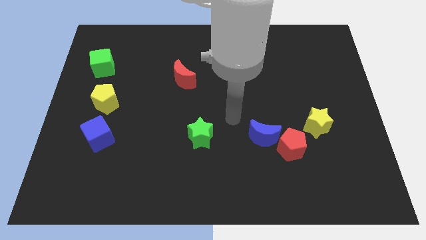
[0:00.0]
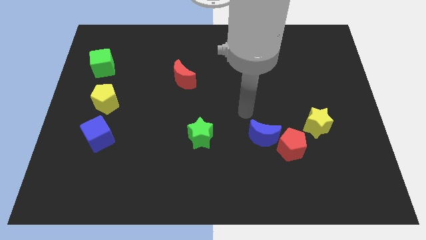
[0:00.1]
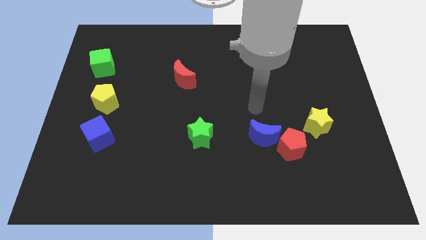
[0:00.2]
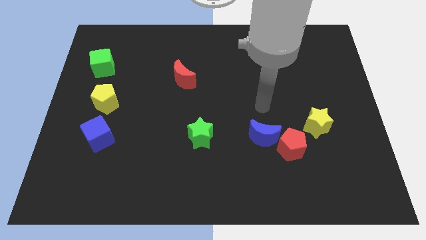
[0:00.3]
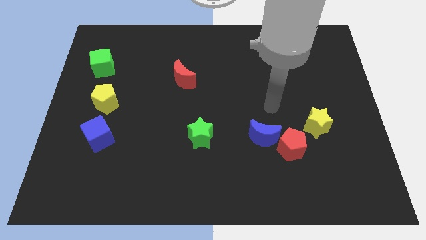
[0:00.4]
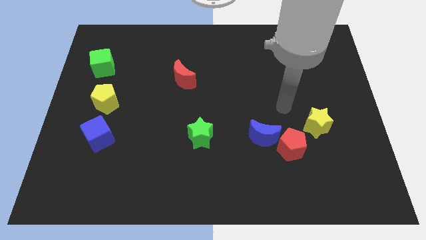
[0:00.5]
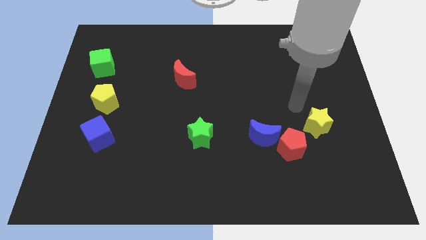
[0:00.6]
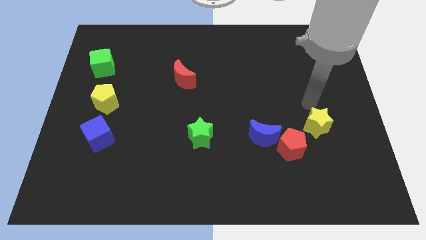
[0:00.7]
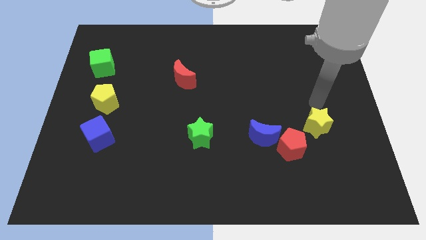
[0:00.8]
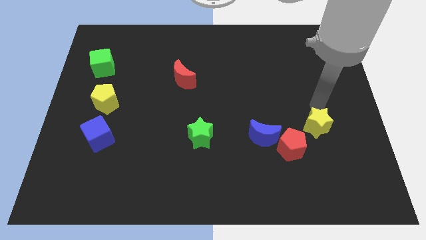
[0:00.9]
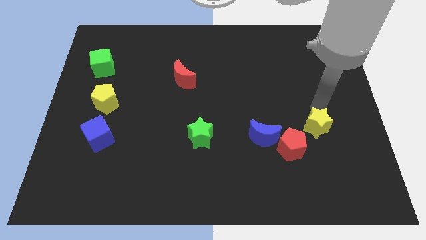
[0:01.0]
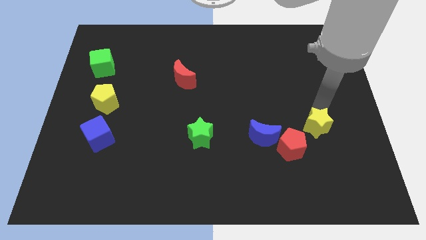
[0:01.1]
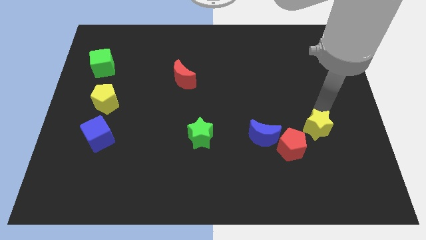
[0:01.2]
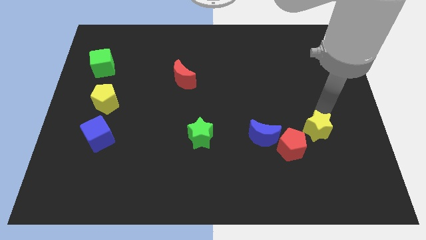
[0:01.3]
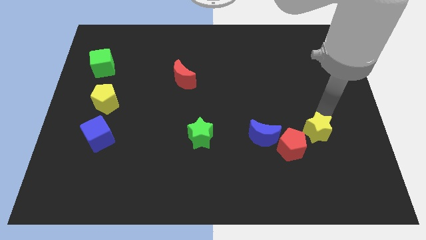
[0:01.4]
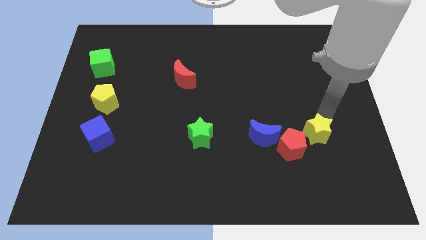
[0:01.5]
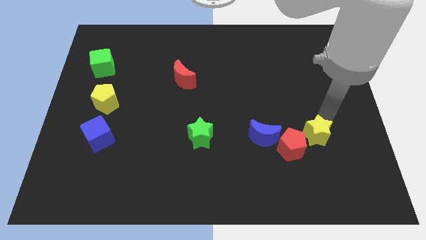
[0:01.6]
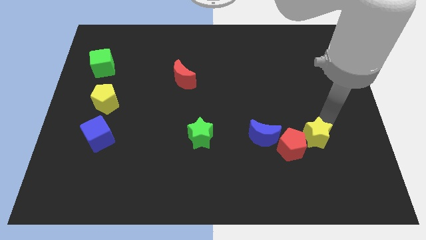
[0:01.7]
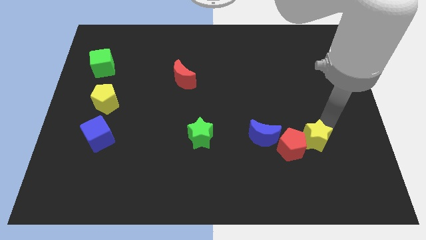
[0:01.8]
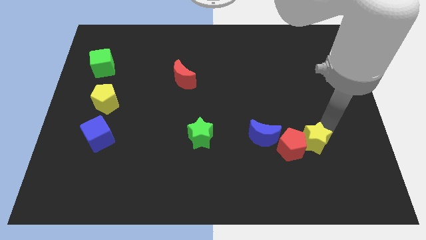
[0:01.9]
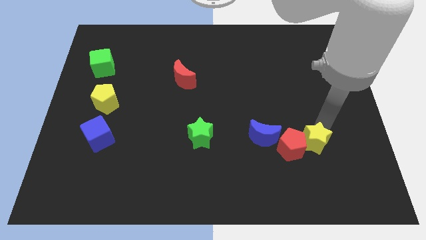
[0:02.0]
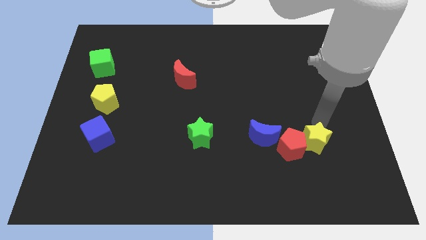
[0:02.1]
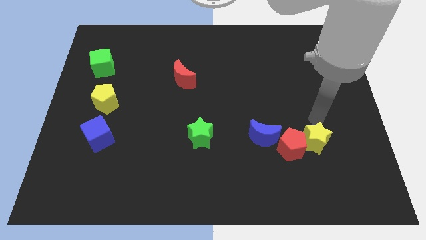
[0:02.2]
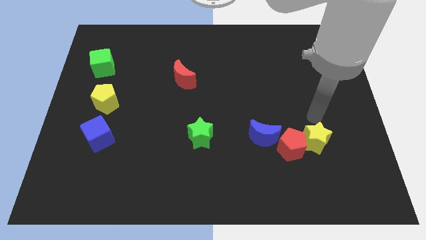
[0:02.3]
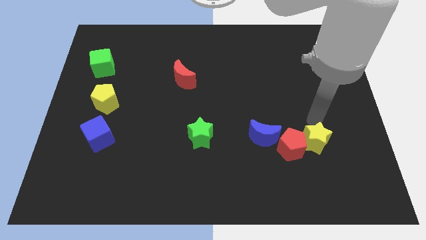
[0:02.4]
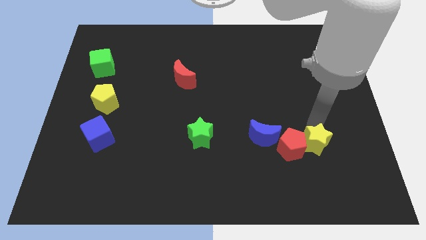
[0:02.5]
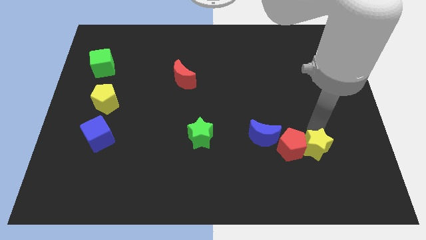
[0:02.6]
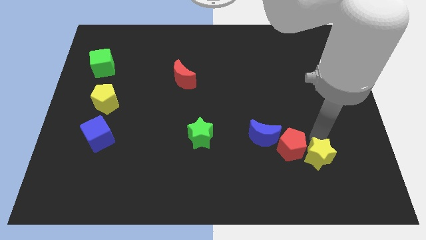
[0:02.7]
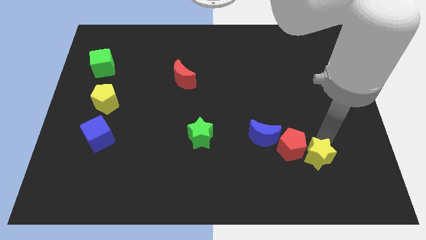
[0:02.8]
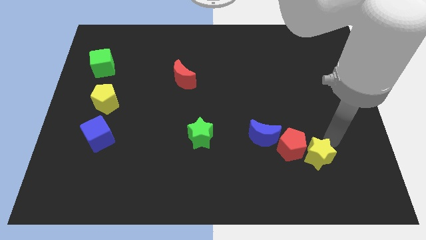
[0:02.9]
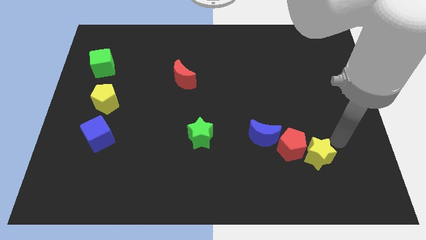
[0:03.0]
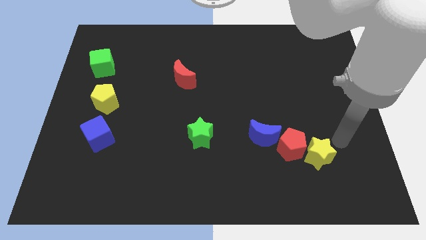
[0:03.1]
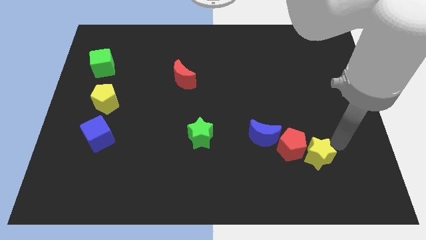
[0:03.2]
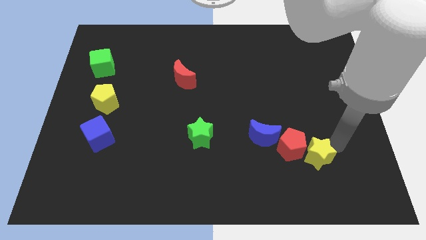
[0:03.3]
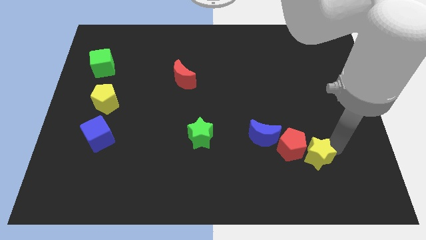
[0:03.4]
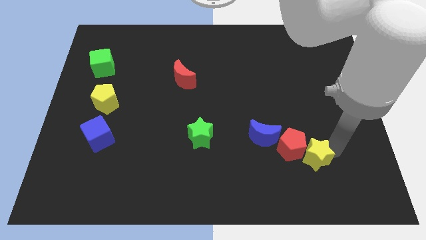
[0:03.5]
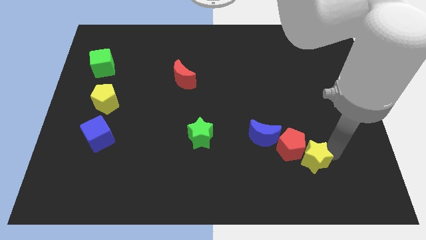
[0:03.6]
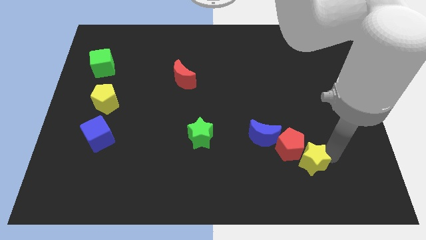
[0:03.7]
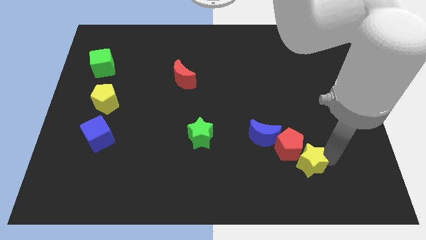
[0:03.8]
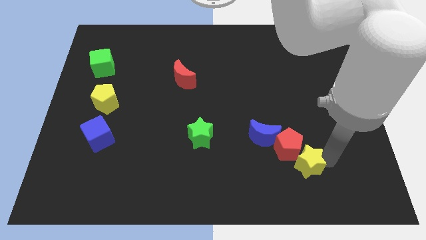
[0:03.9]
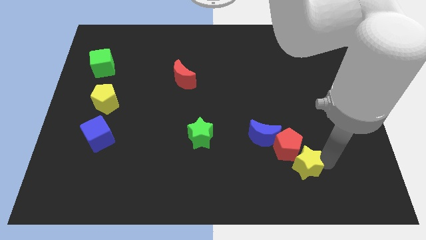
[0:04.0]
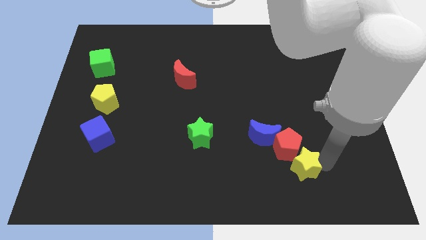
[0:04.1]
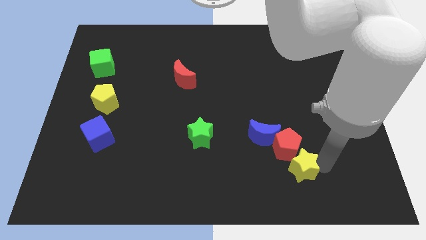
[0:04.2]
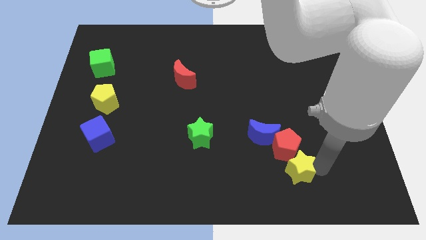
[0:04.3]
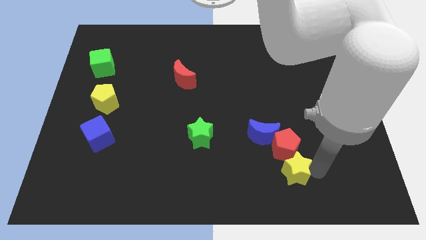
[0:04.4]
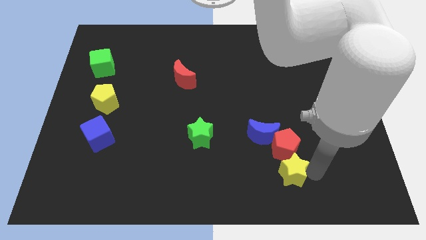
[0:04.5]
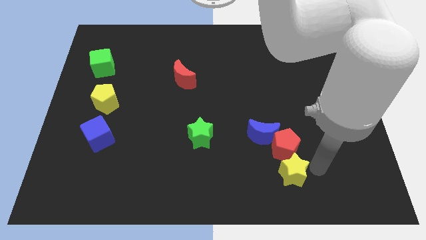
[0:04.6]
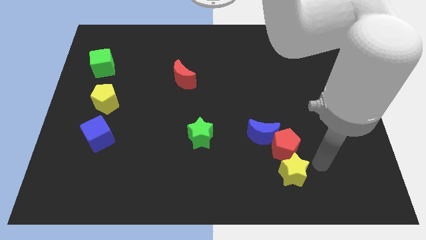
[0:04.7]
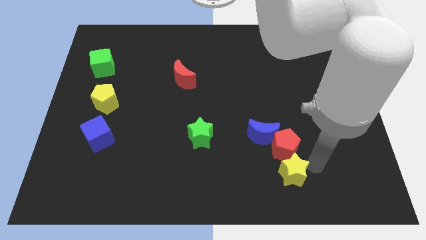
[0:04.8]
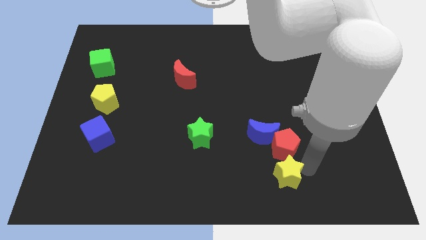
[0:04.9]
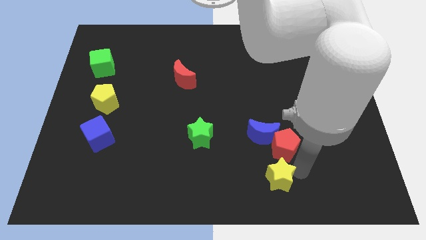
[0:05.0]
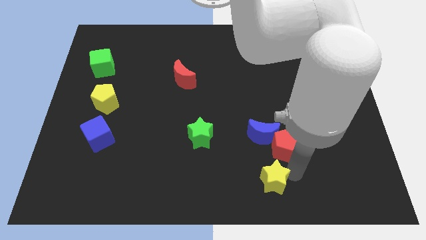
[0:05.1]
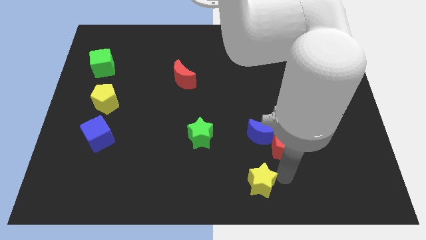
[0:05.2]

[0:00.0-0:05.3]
slide the yellow star to the bottom side

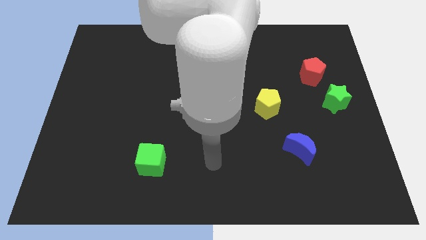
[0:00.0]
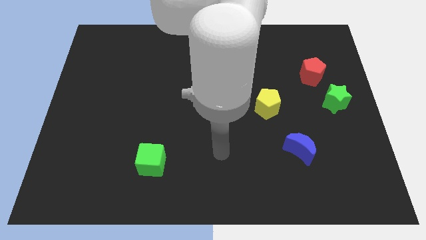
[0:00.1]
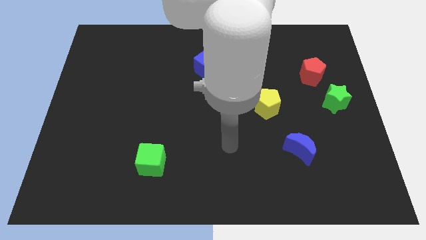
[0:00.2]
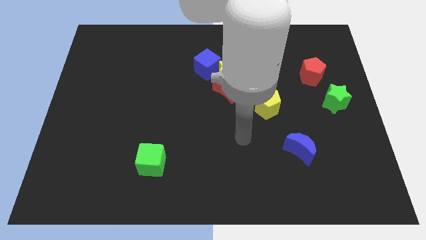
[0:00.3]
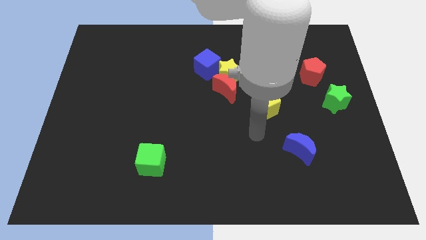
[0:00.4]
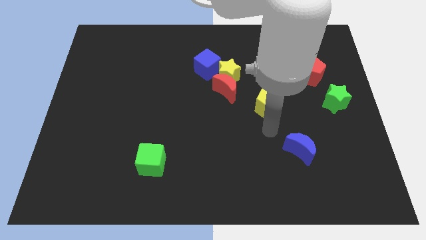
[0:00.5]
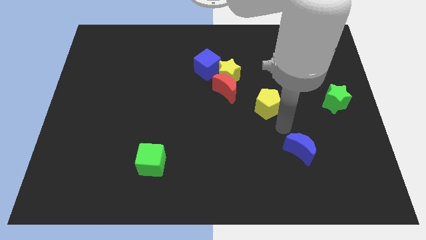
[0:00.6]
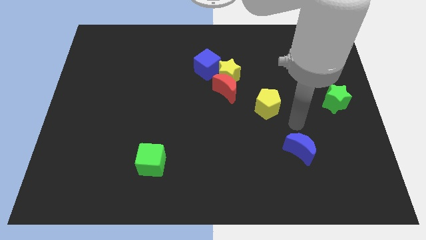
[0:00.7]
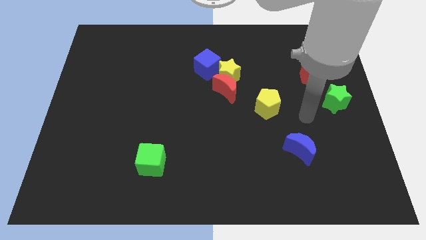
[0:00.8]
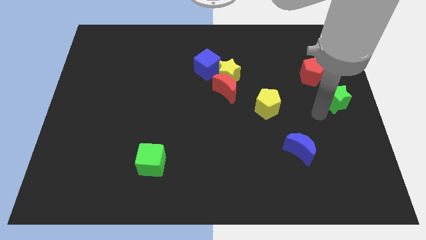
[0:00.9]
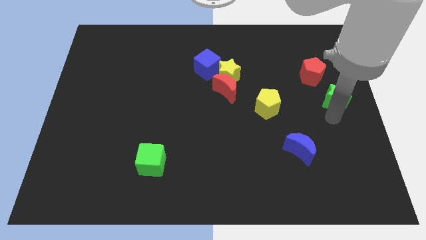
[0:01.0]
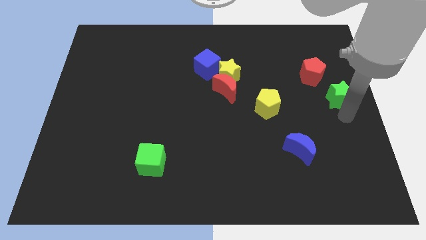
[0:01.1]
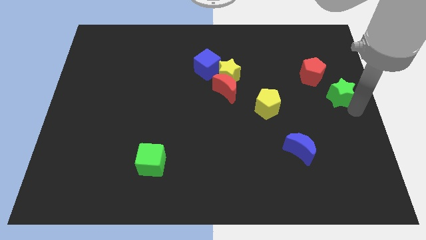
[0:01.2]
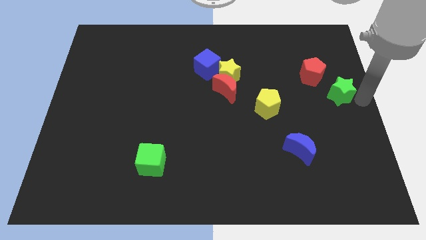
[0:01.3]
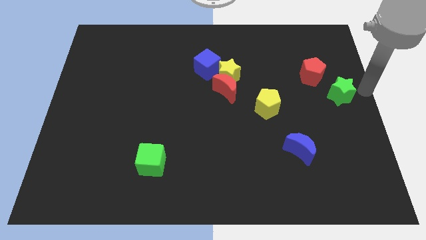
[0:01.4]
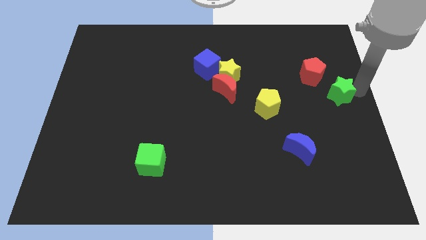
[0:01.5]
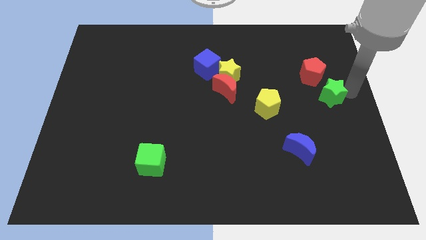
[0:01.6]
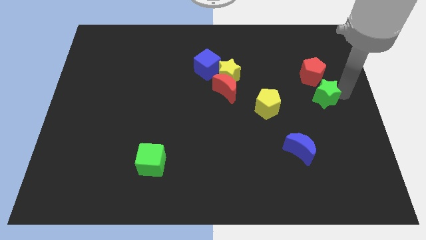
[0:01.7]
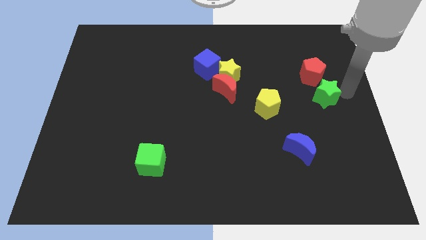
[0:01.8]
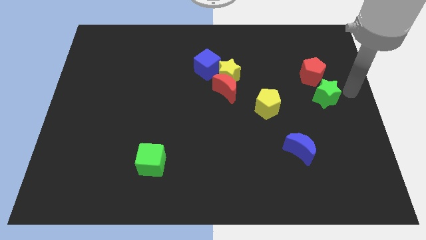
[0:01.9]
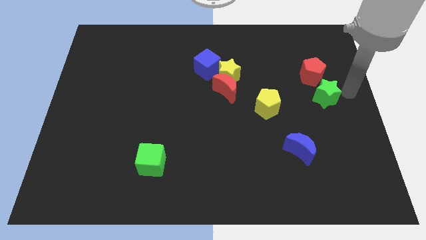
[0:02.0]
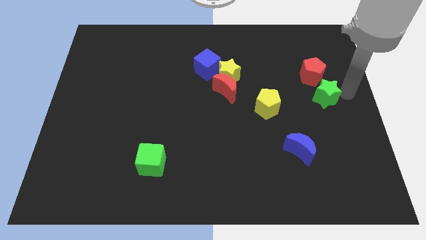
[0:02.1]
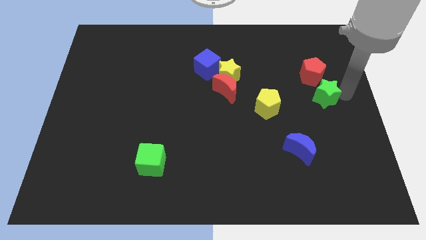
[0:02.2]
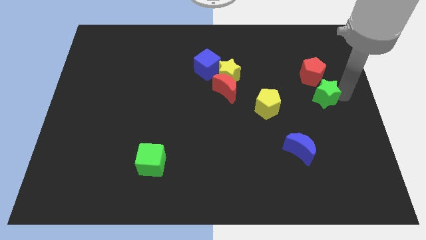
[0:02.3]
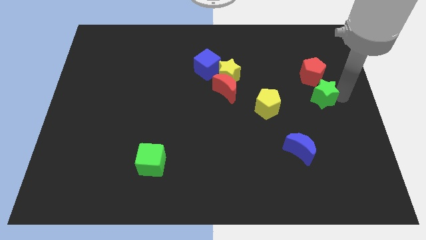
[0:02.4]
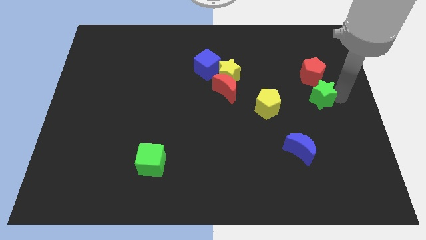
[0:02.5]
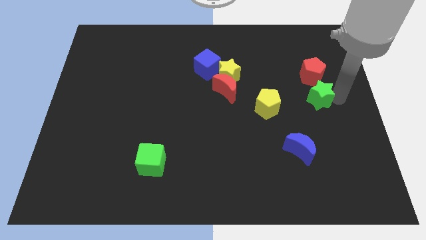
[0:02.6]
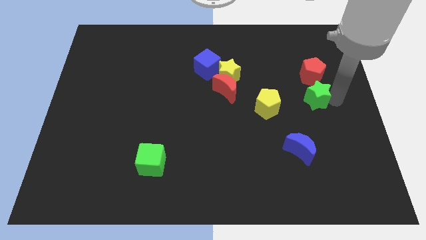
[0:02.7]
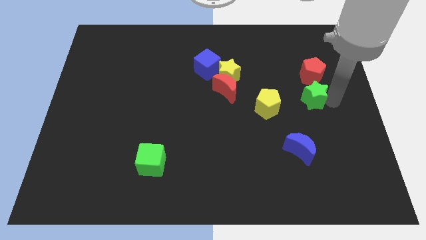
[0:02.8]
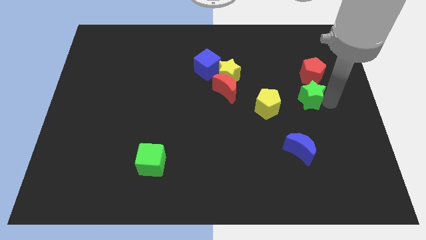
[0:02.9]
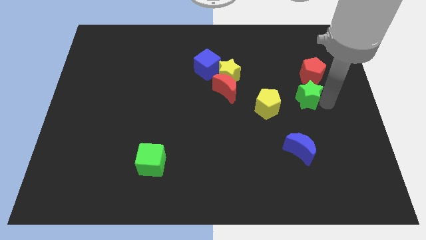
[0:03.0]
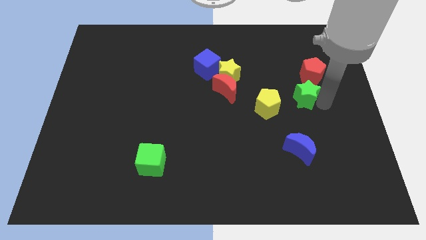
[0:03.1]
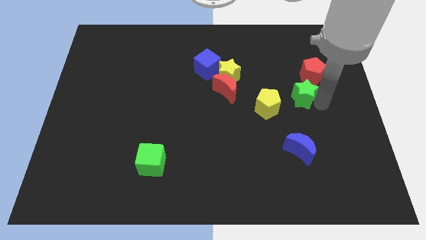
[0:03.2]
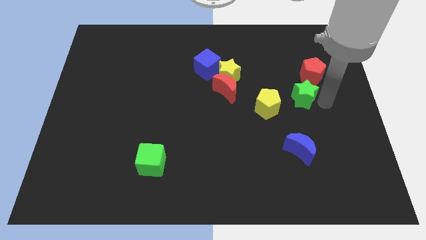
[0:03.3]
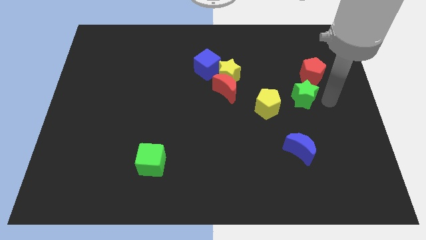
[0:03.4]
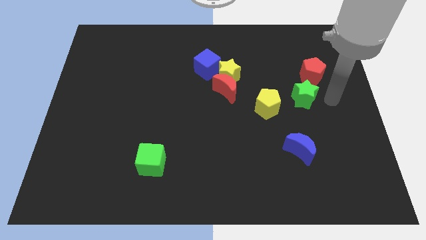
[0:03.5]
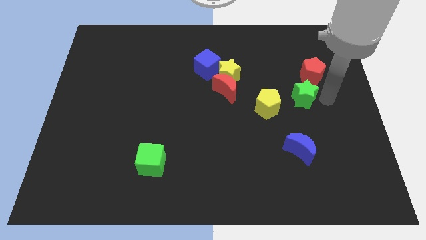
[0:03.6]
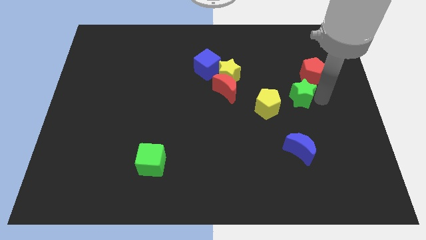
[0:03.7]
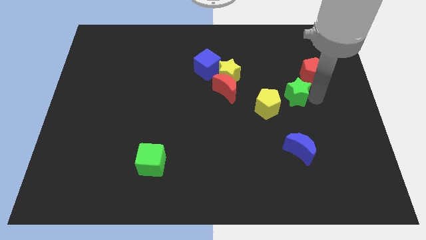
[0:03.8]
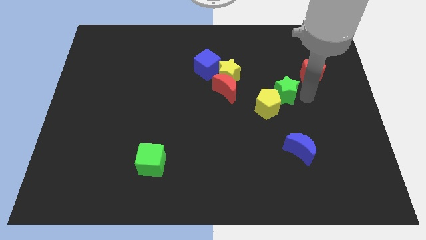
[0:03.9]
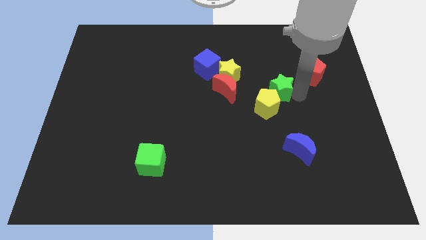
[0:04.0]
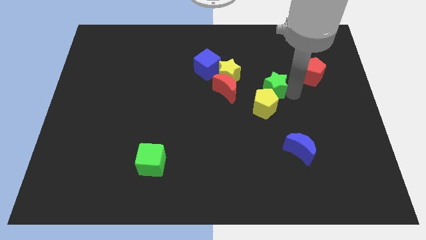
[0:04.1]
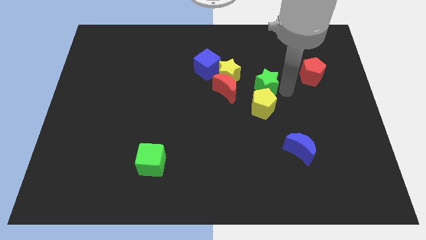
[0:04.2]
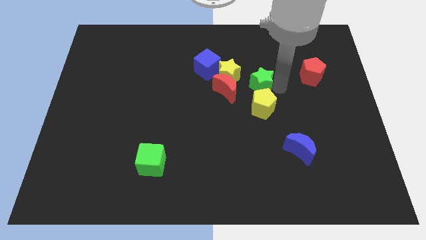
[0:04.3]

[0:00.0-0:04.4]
slide the green star to the center of the board
